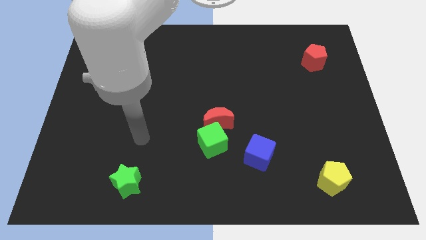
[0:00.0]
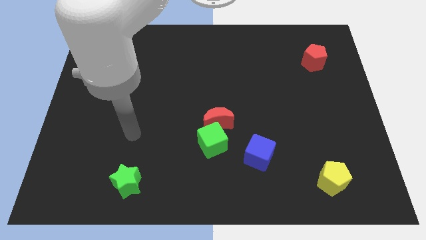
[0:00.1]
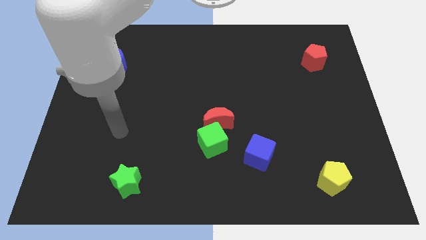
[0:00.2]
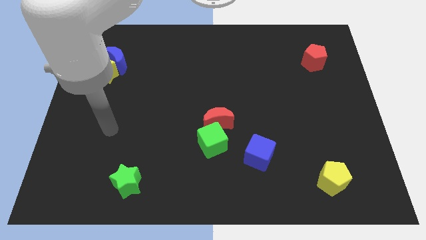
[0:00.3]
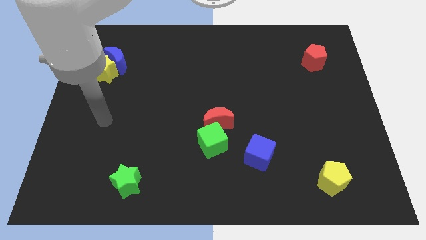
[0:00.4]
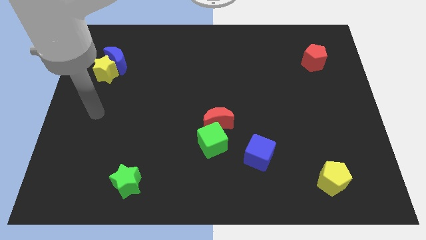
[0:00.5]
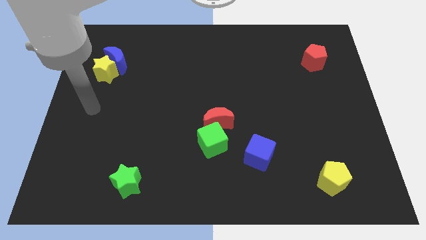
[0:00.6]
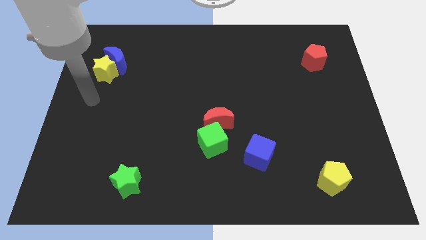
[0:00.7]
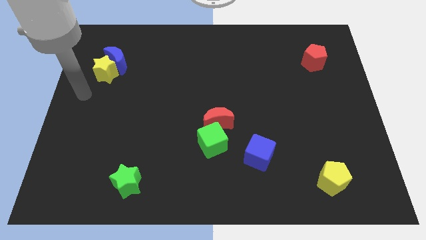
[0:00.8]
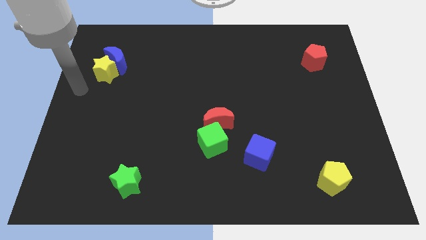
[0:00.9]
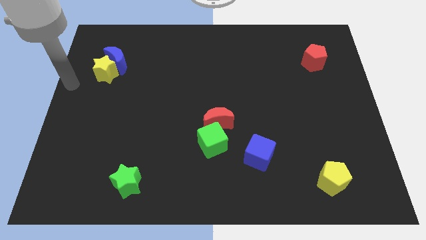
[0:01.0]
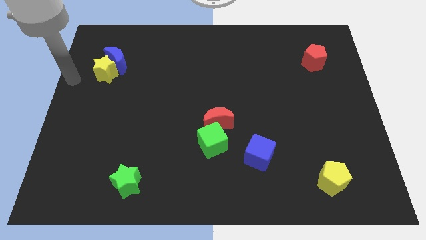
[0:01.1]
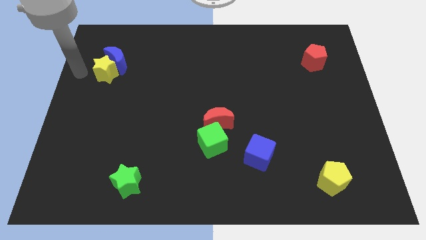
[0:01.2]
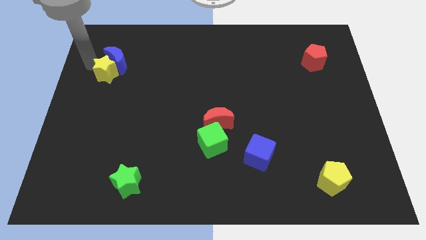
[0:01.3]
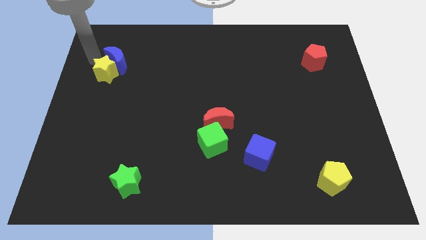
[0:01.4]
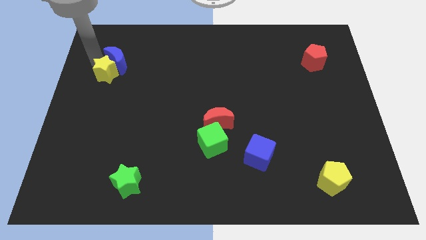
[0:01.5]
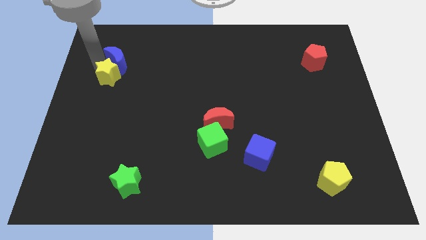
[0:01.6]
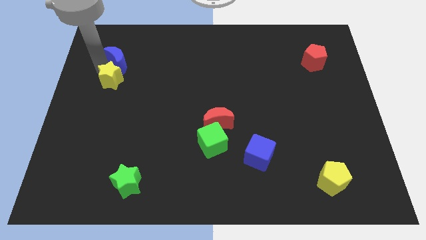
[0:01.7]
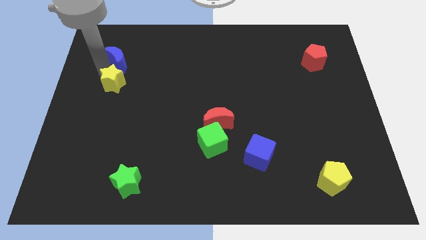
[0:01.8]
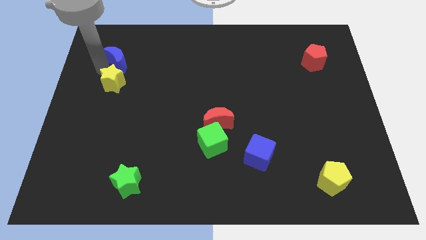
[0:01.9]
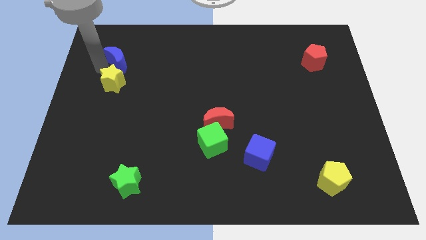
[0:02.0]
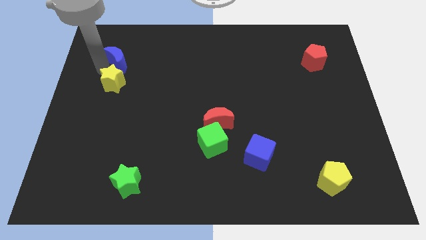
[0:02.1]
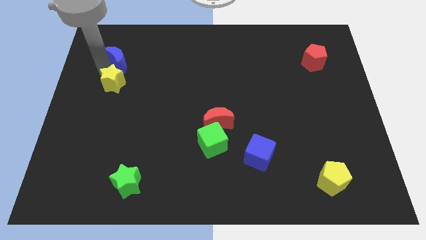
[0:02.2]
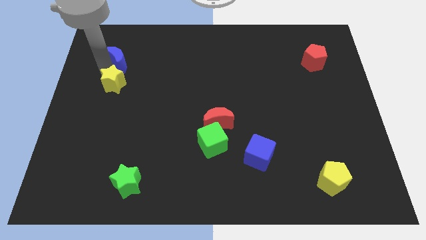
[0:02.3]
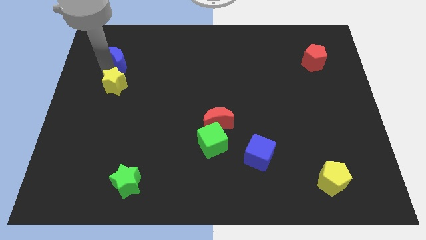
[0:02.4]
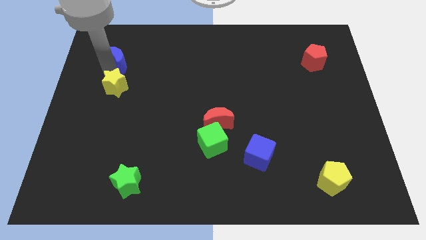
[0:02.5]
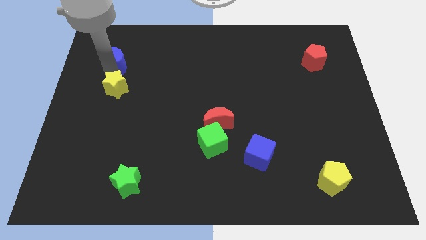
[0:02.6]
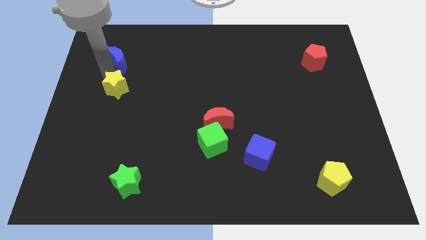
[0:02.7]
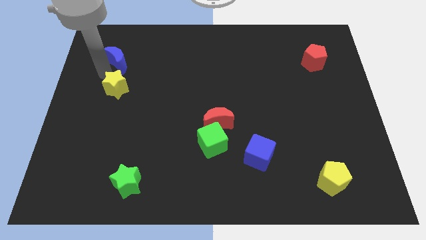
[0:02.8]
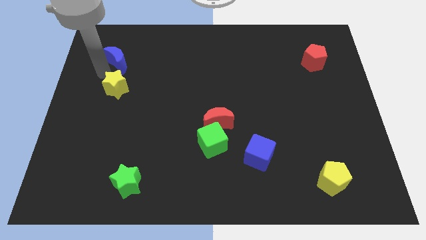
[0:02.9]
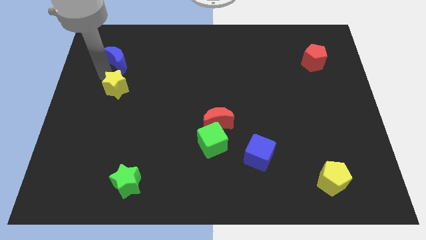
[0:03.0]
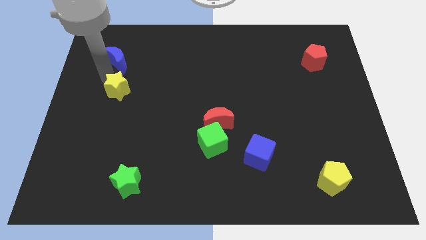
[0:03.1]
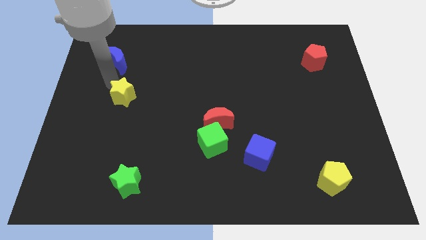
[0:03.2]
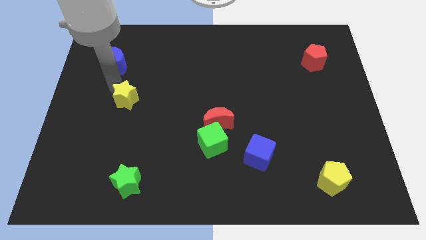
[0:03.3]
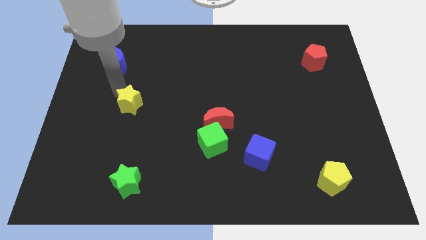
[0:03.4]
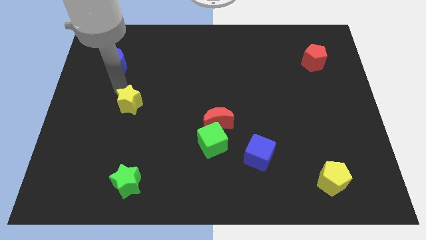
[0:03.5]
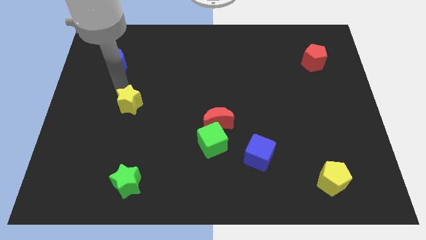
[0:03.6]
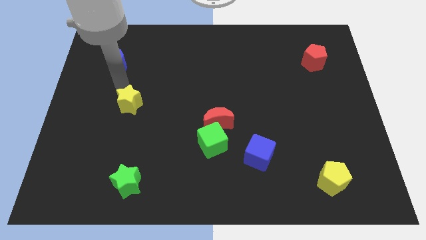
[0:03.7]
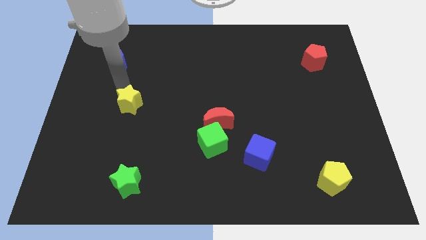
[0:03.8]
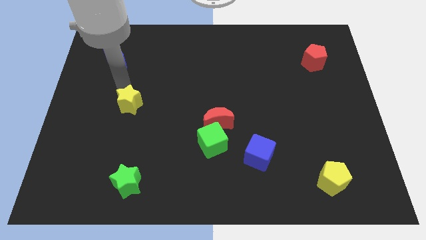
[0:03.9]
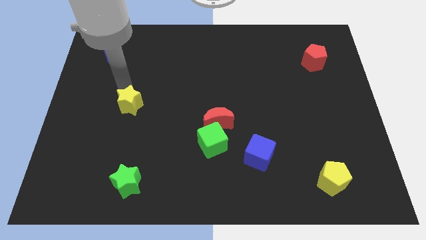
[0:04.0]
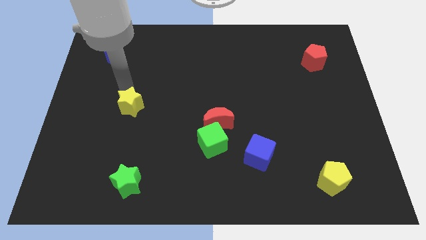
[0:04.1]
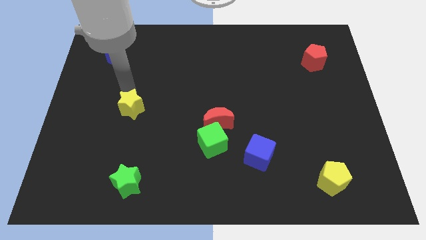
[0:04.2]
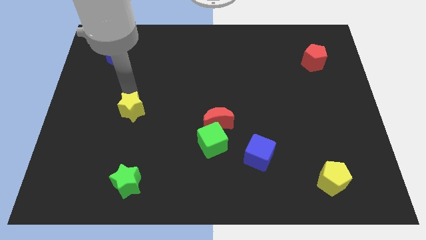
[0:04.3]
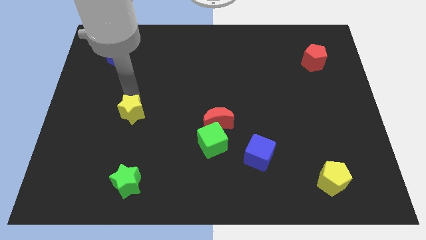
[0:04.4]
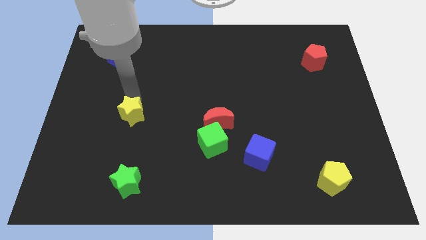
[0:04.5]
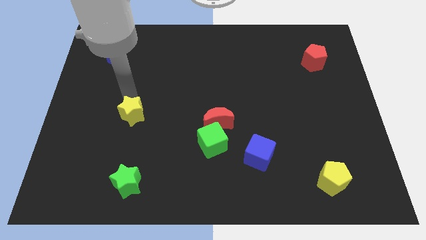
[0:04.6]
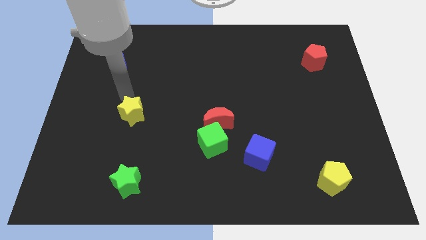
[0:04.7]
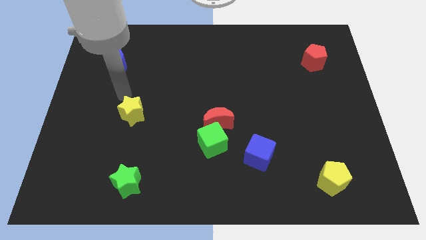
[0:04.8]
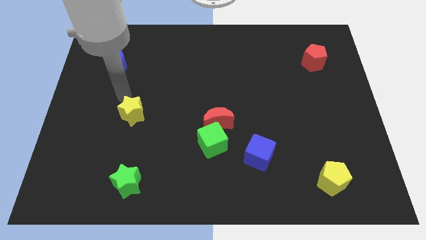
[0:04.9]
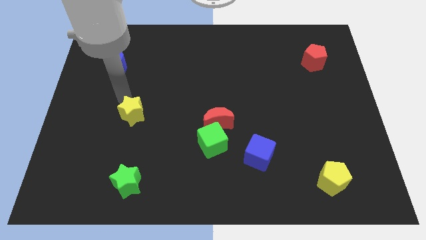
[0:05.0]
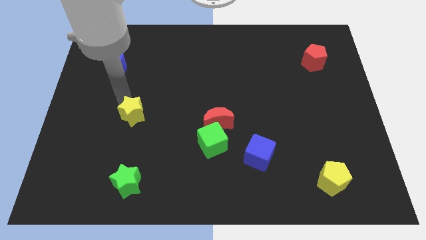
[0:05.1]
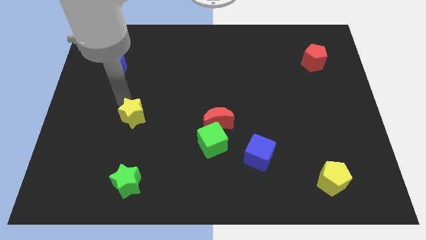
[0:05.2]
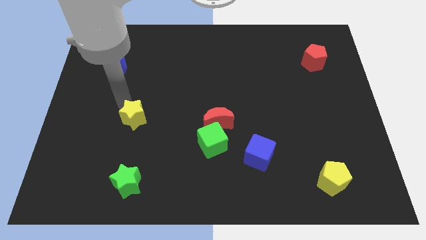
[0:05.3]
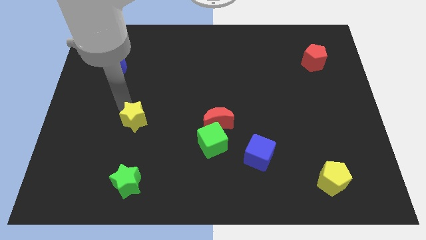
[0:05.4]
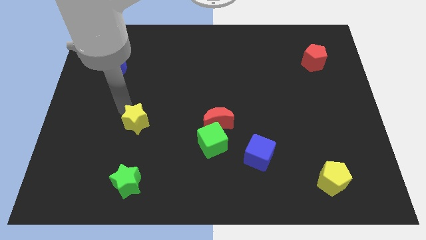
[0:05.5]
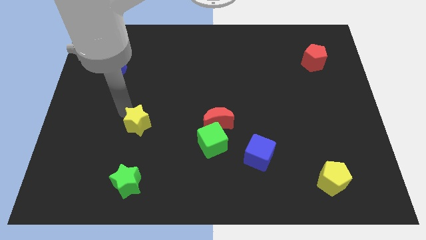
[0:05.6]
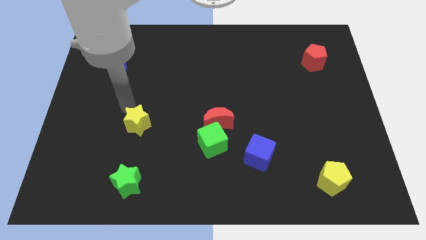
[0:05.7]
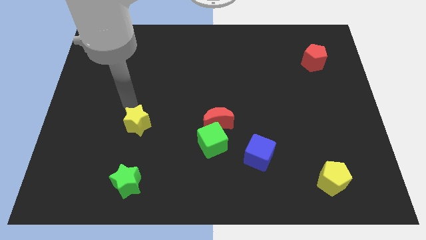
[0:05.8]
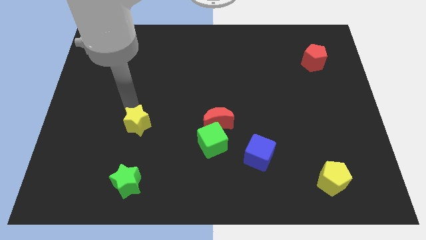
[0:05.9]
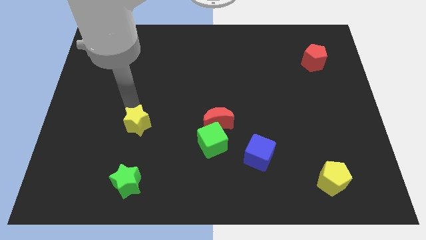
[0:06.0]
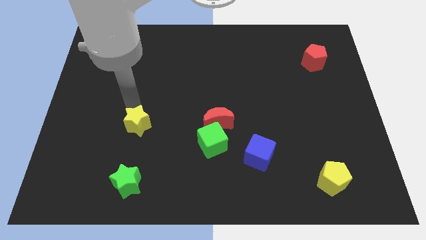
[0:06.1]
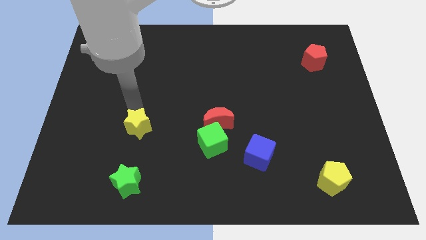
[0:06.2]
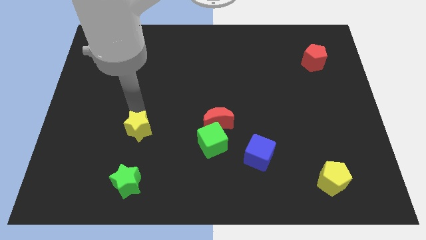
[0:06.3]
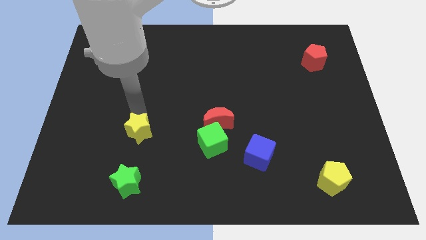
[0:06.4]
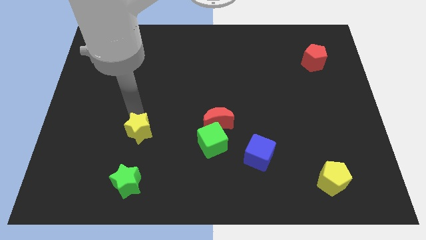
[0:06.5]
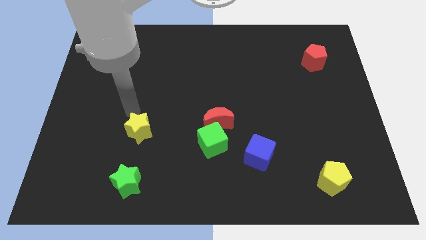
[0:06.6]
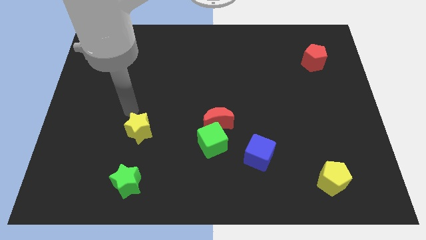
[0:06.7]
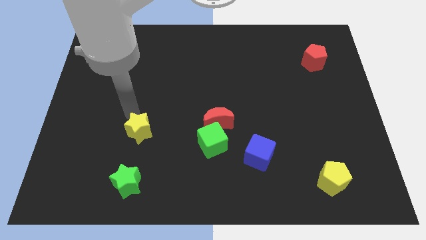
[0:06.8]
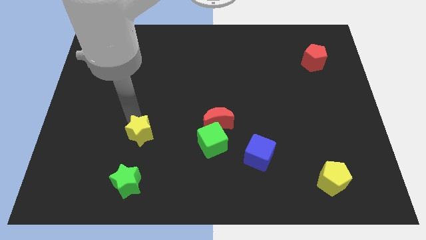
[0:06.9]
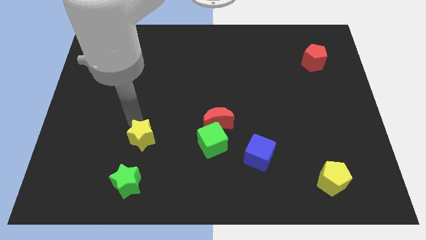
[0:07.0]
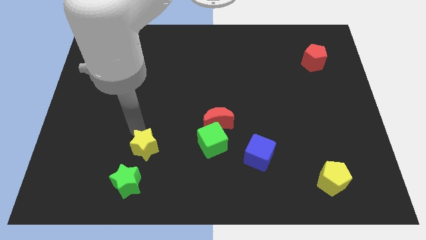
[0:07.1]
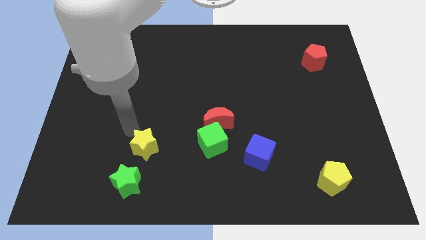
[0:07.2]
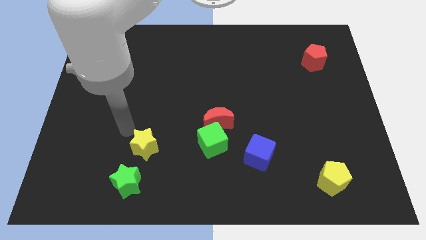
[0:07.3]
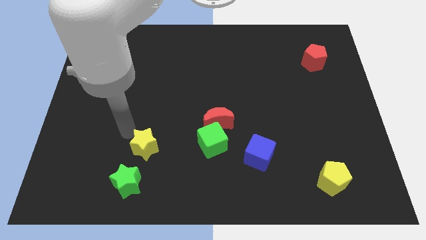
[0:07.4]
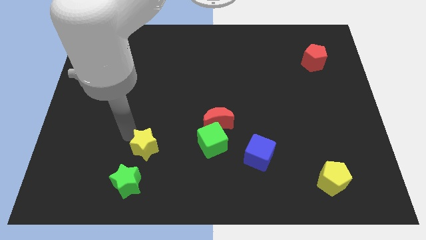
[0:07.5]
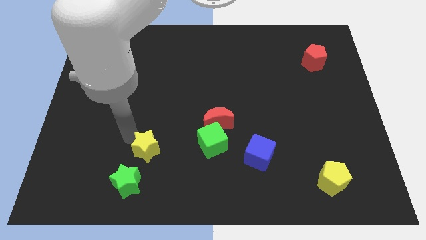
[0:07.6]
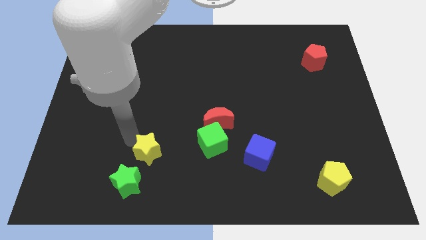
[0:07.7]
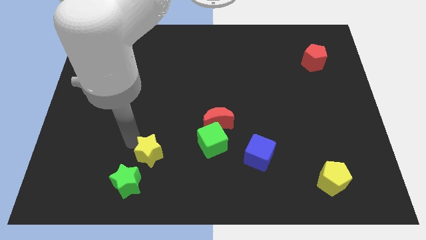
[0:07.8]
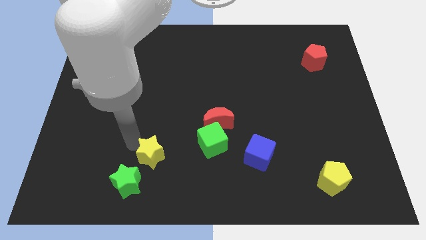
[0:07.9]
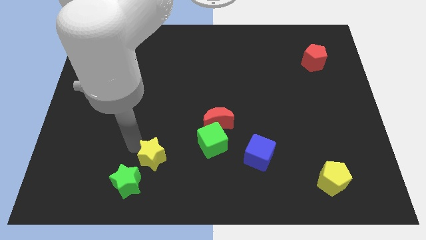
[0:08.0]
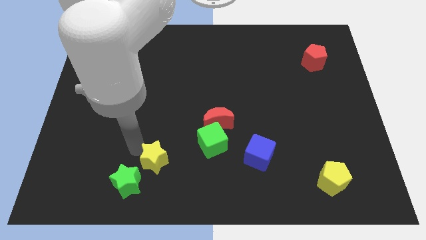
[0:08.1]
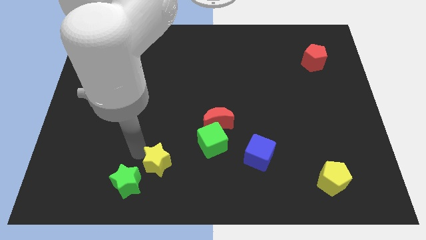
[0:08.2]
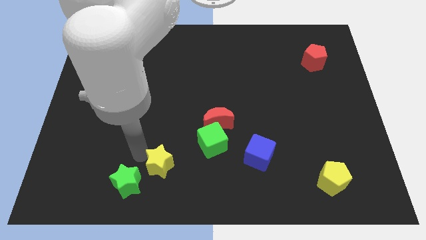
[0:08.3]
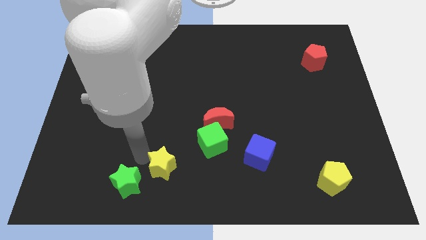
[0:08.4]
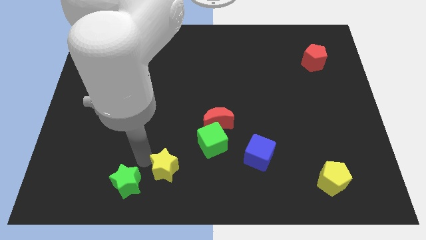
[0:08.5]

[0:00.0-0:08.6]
move the yellow star to the bottom
